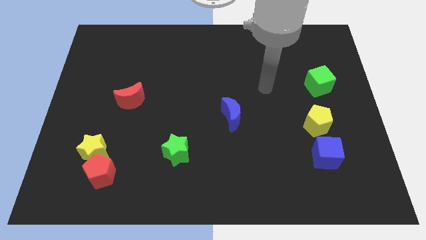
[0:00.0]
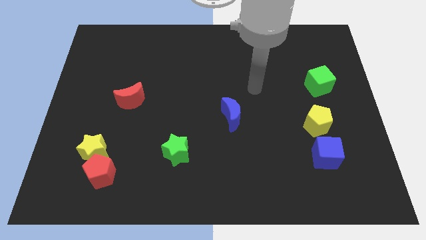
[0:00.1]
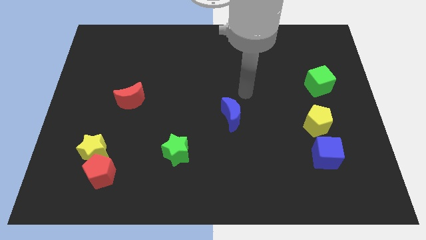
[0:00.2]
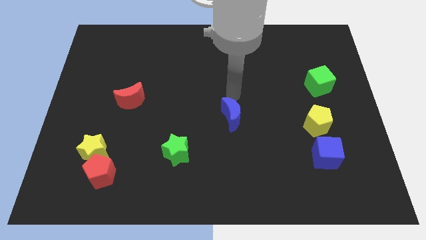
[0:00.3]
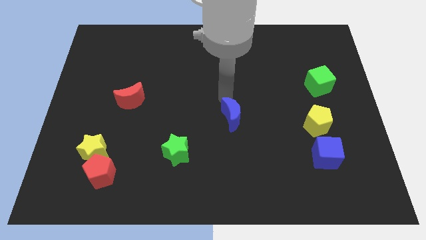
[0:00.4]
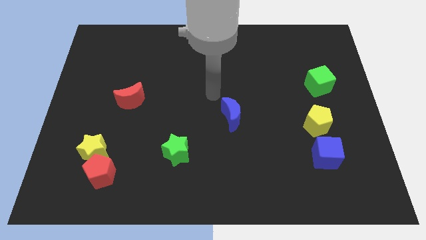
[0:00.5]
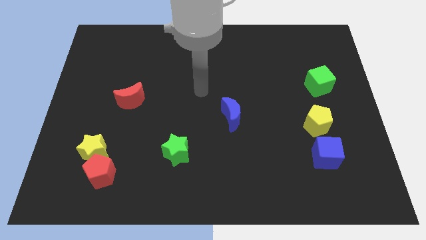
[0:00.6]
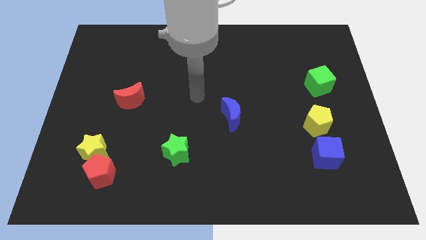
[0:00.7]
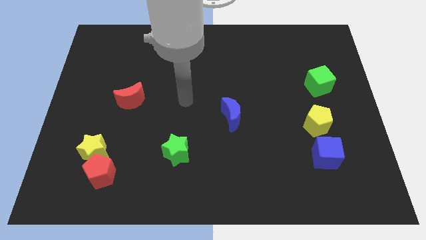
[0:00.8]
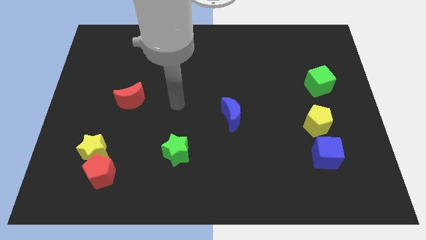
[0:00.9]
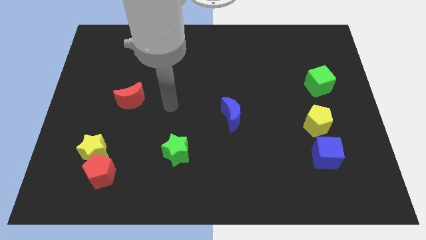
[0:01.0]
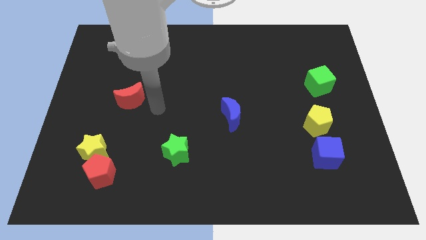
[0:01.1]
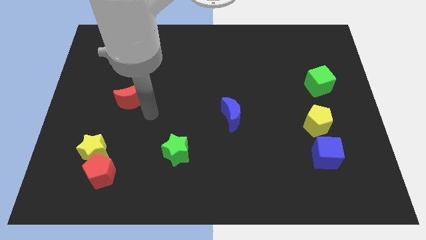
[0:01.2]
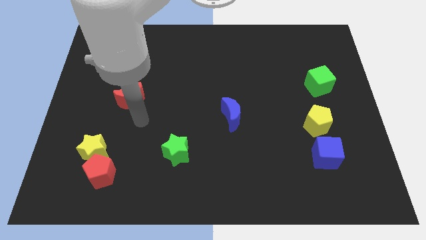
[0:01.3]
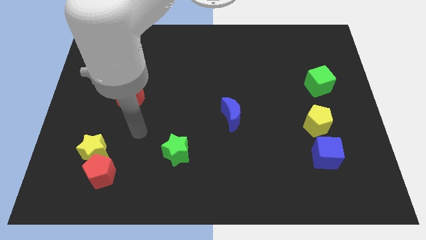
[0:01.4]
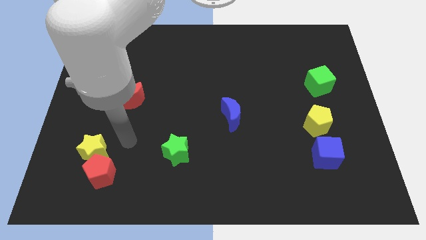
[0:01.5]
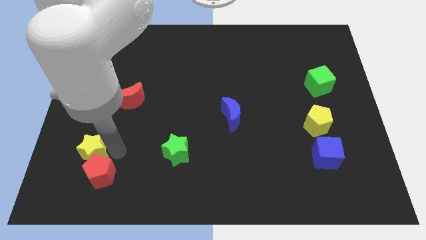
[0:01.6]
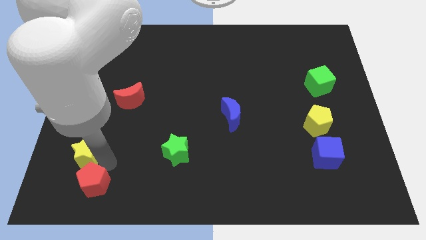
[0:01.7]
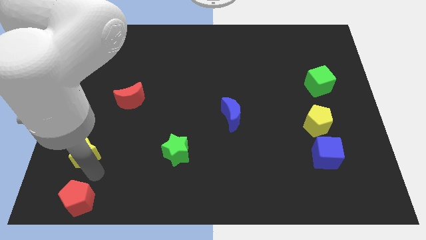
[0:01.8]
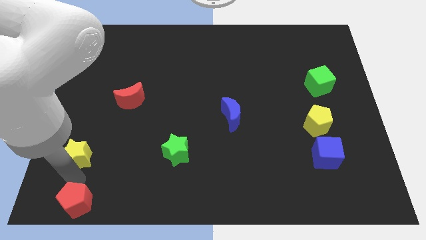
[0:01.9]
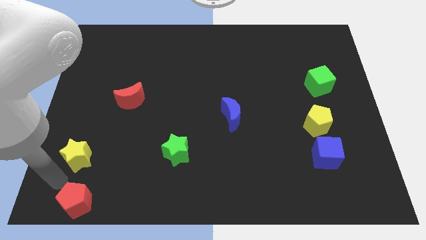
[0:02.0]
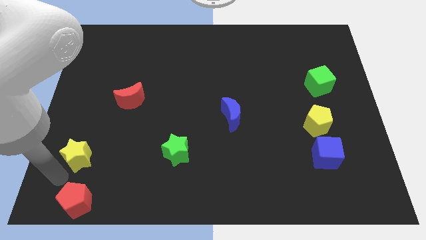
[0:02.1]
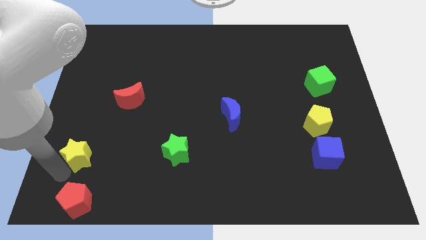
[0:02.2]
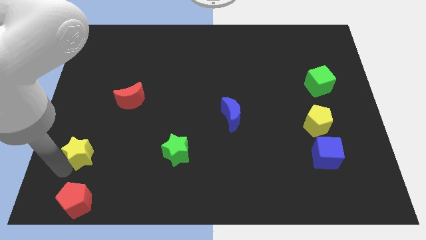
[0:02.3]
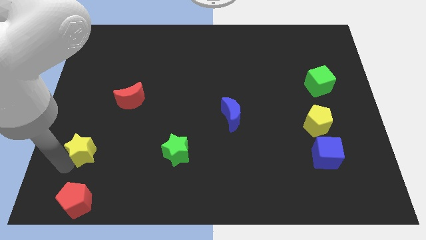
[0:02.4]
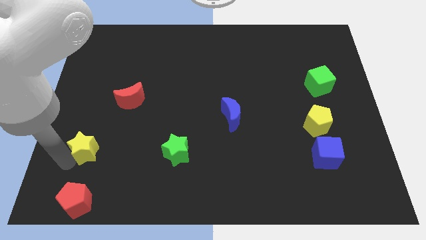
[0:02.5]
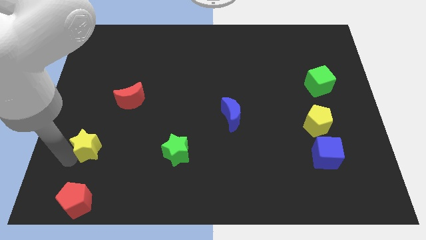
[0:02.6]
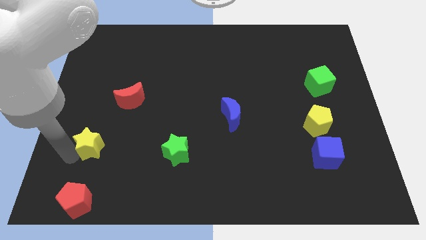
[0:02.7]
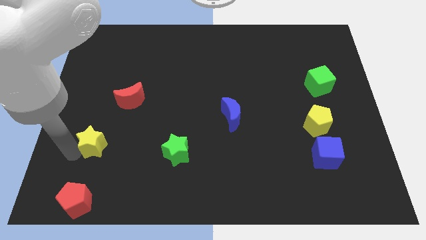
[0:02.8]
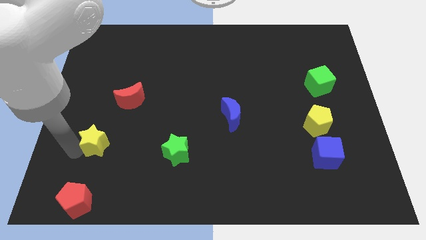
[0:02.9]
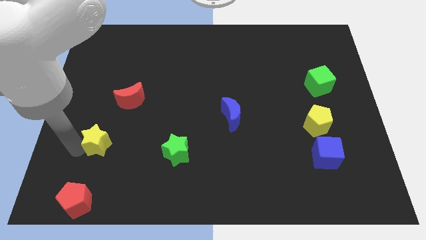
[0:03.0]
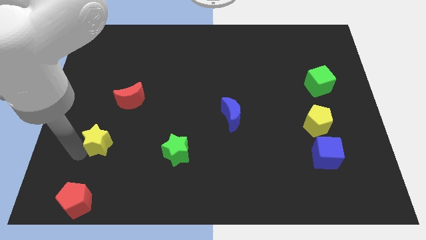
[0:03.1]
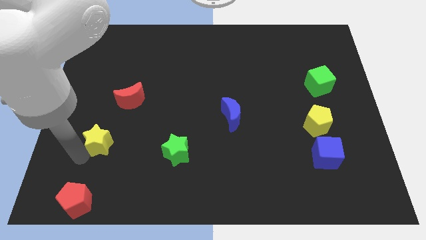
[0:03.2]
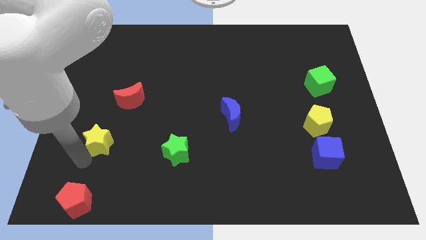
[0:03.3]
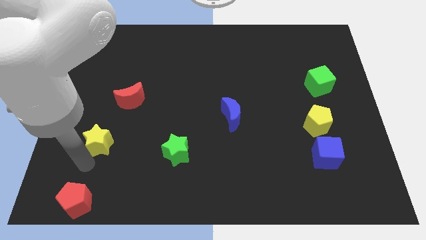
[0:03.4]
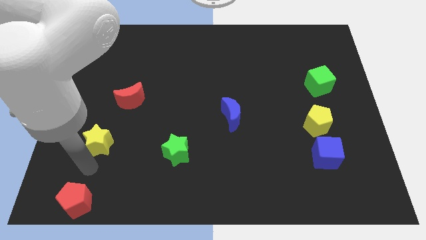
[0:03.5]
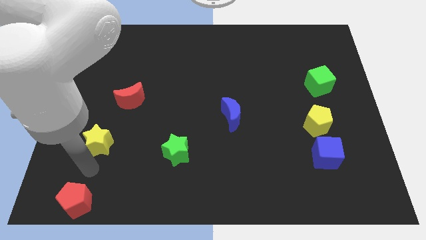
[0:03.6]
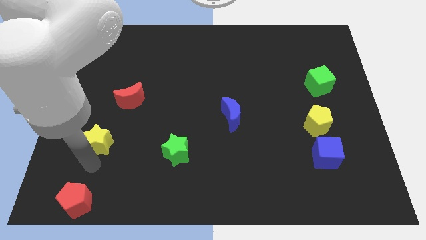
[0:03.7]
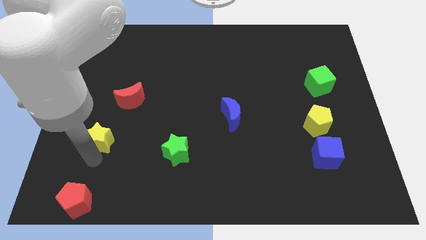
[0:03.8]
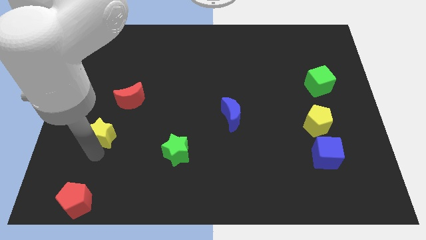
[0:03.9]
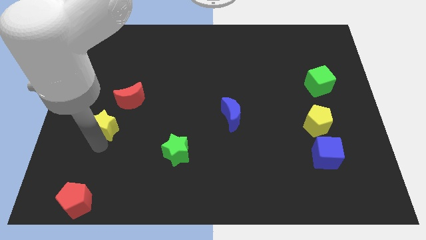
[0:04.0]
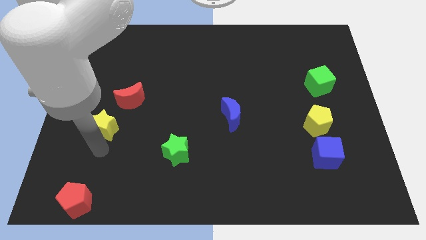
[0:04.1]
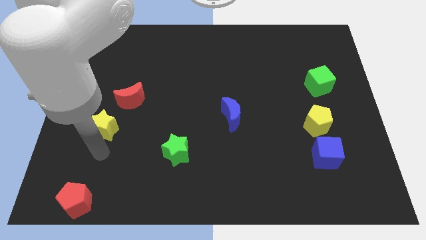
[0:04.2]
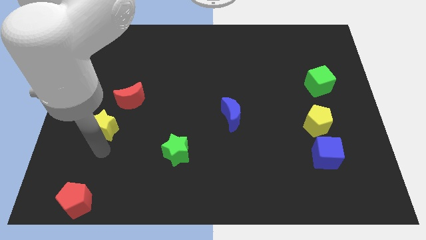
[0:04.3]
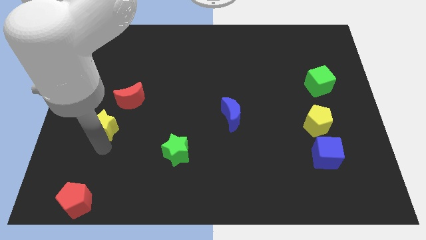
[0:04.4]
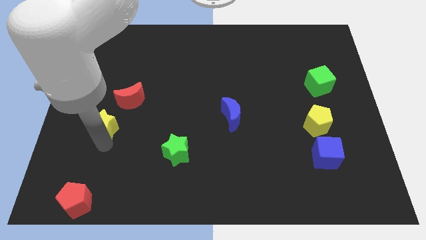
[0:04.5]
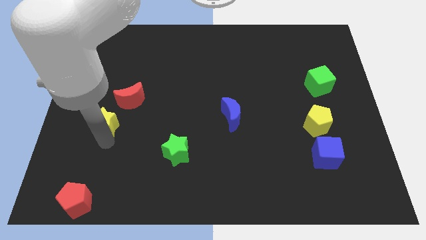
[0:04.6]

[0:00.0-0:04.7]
move the yellow star somewhat up

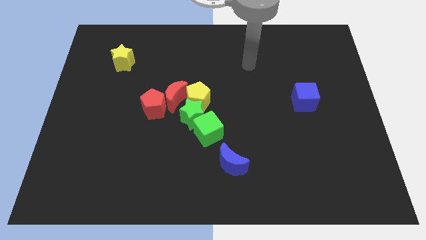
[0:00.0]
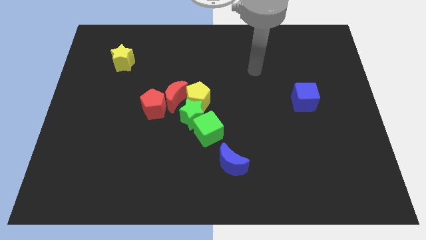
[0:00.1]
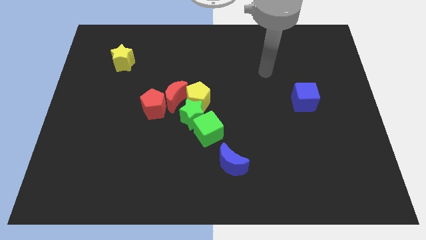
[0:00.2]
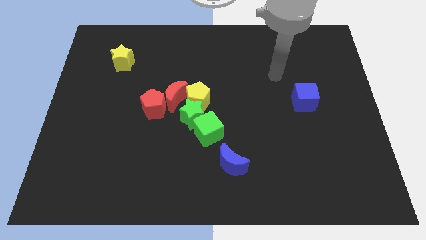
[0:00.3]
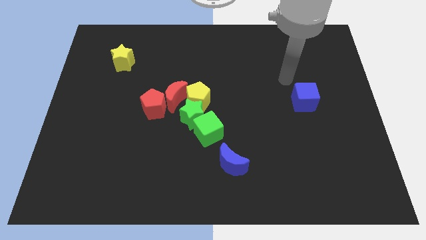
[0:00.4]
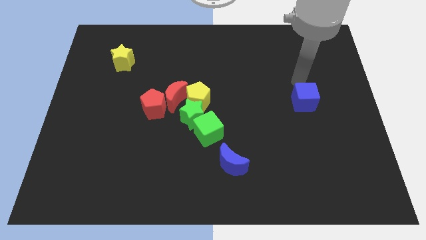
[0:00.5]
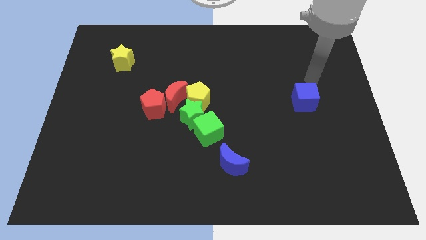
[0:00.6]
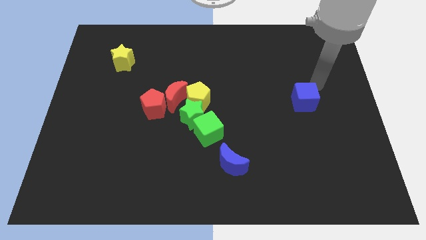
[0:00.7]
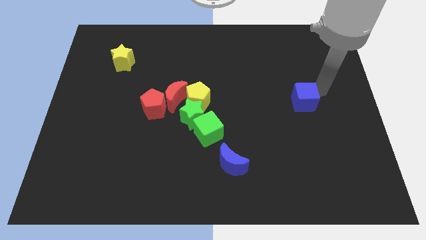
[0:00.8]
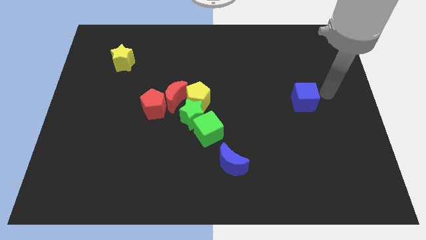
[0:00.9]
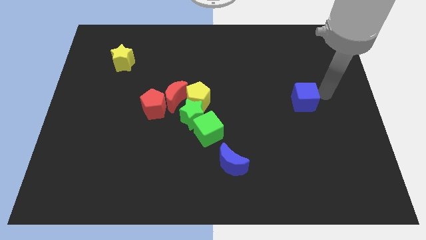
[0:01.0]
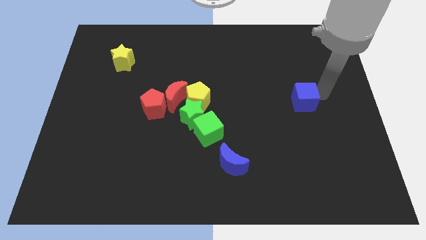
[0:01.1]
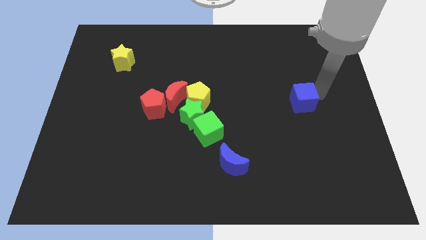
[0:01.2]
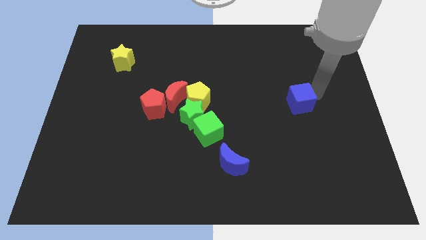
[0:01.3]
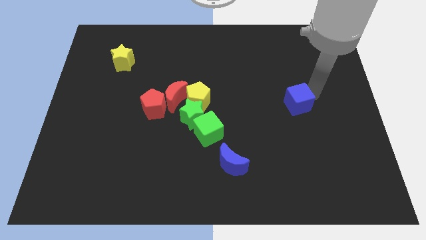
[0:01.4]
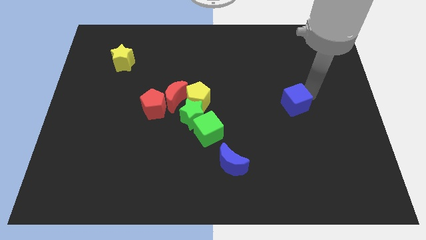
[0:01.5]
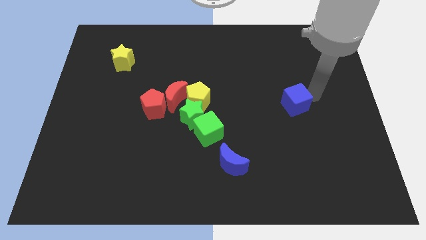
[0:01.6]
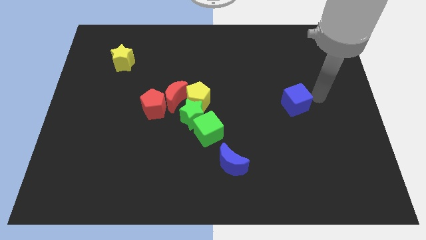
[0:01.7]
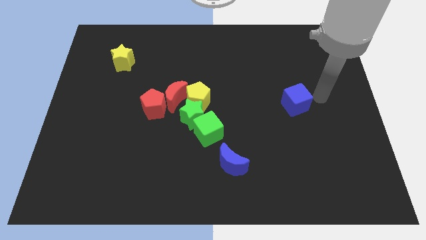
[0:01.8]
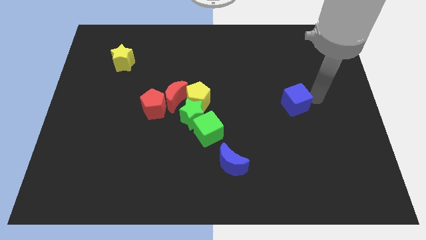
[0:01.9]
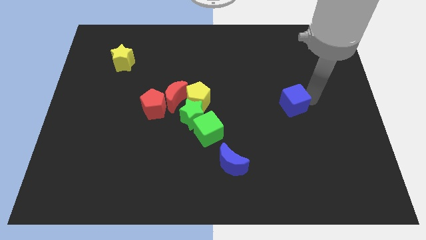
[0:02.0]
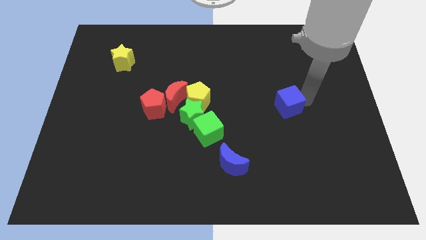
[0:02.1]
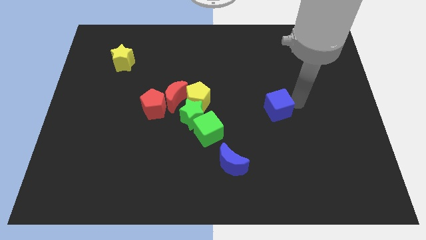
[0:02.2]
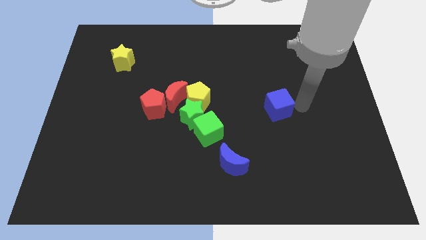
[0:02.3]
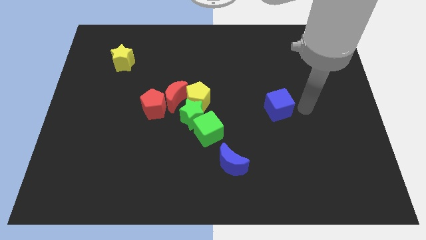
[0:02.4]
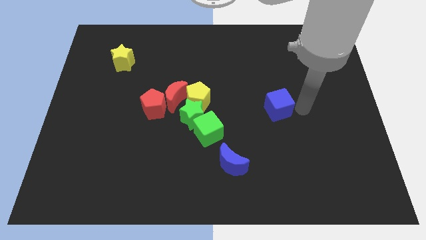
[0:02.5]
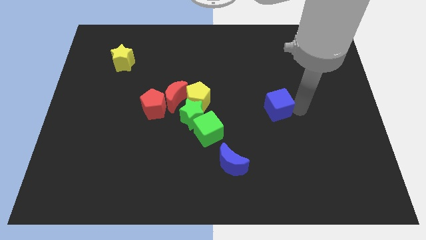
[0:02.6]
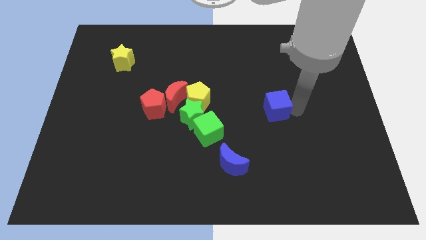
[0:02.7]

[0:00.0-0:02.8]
move the blue cube a little left
